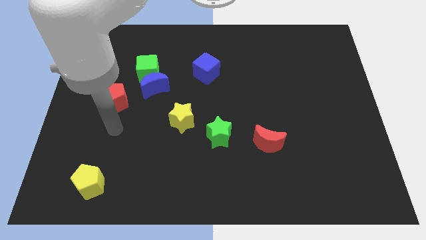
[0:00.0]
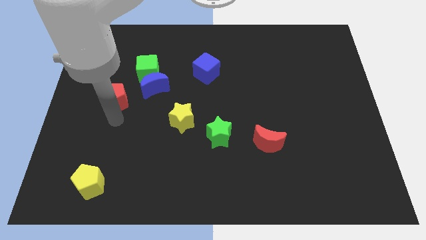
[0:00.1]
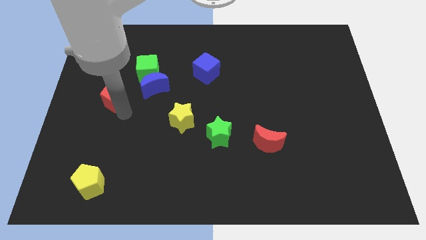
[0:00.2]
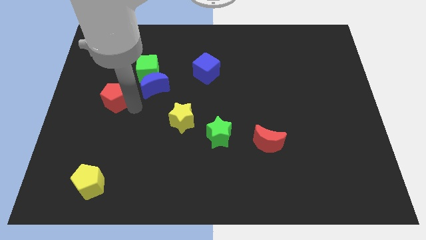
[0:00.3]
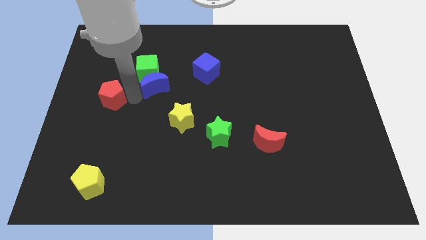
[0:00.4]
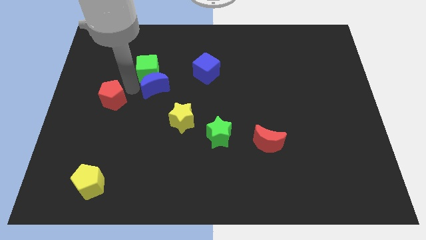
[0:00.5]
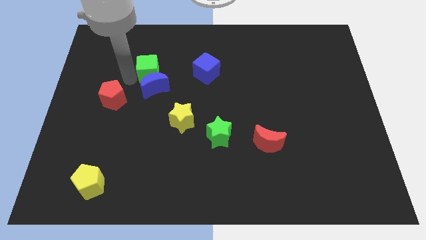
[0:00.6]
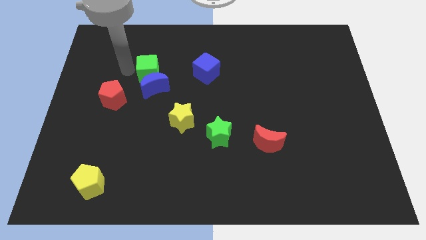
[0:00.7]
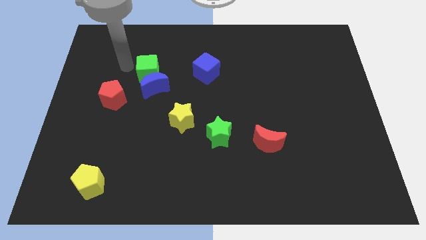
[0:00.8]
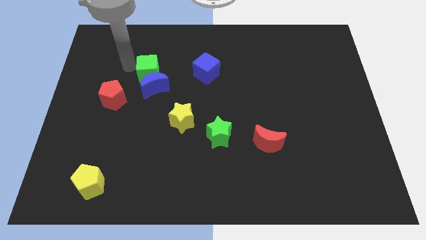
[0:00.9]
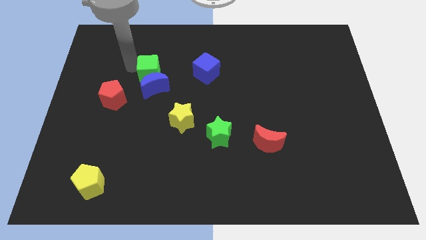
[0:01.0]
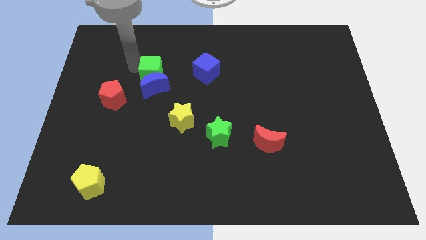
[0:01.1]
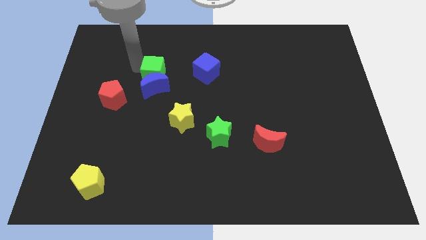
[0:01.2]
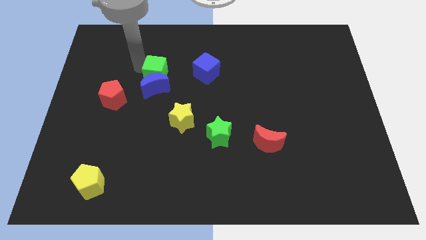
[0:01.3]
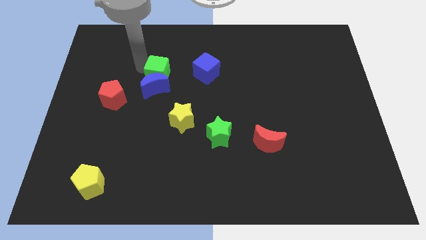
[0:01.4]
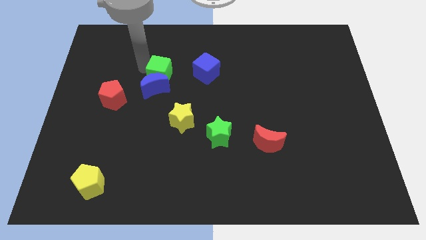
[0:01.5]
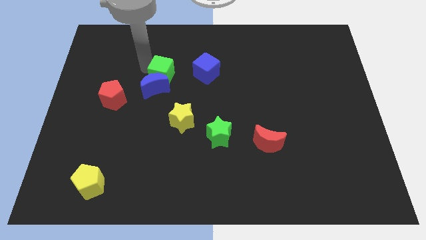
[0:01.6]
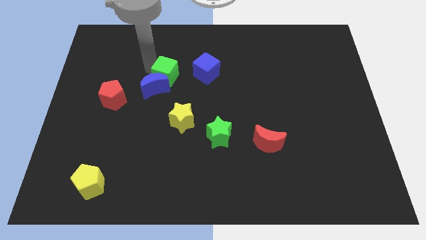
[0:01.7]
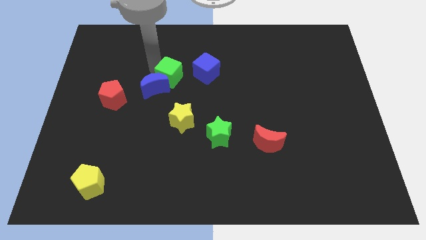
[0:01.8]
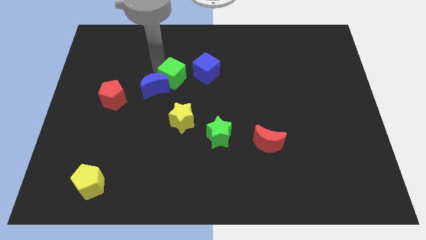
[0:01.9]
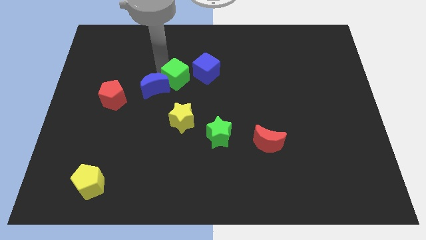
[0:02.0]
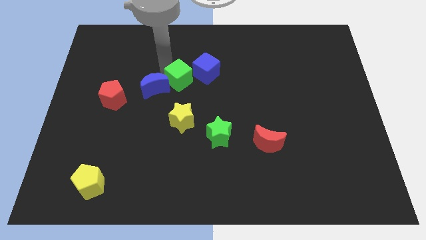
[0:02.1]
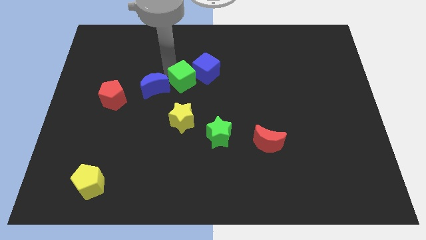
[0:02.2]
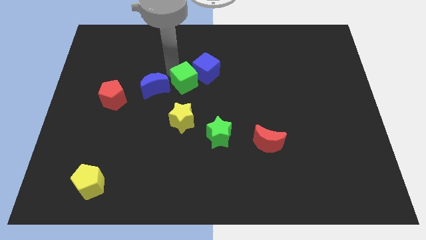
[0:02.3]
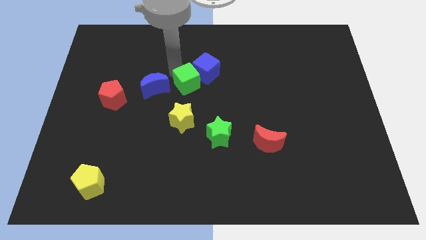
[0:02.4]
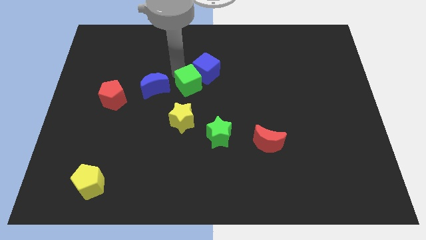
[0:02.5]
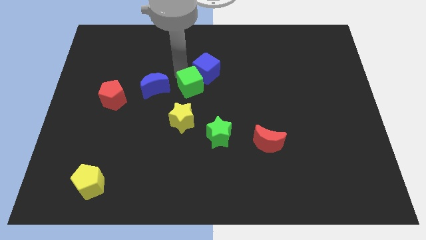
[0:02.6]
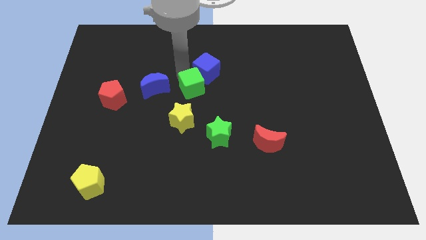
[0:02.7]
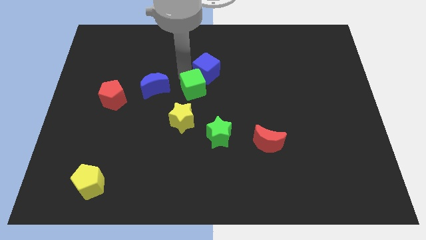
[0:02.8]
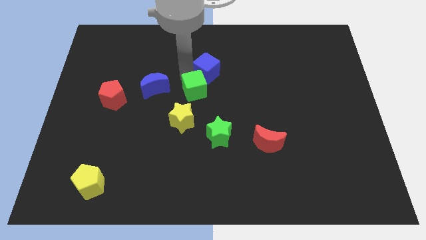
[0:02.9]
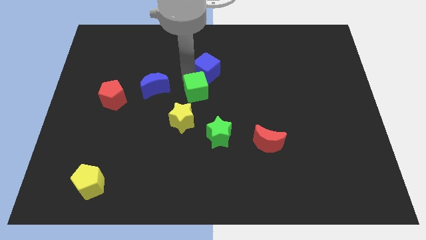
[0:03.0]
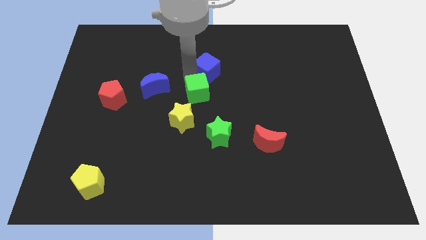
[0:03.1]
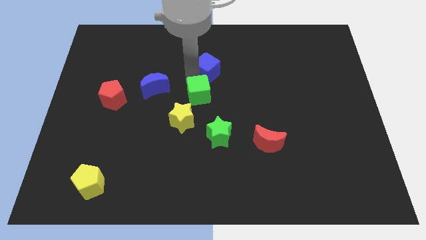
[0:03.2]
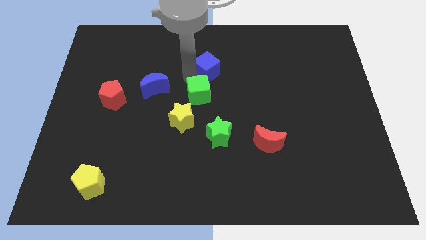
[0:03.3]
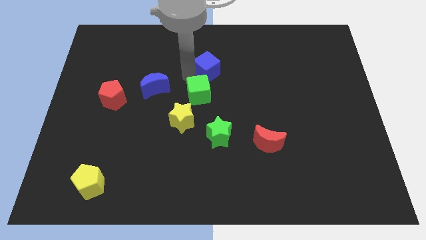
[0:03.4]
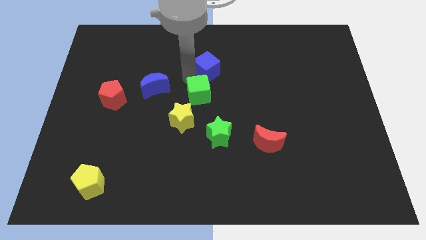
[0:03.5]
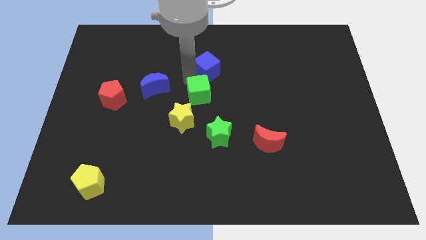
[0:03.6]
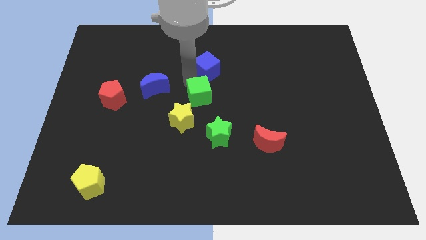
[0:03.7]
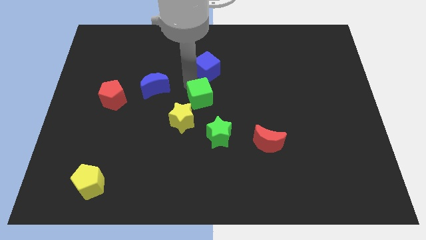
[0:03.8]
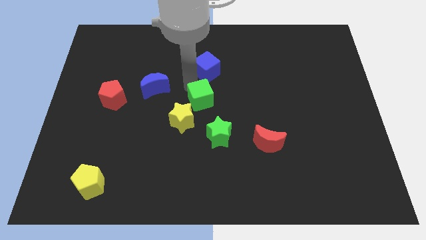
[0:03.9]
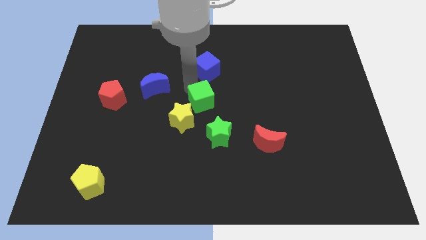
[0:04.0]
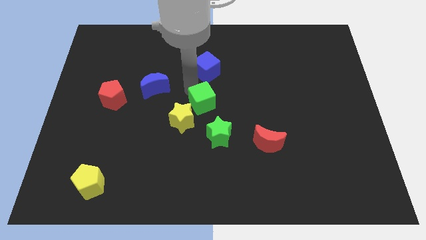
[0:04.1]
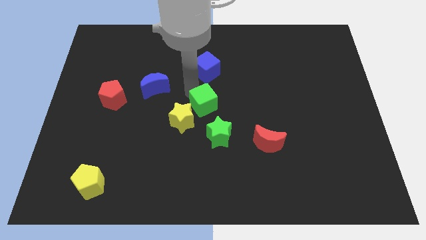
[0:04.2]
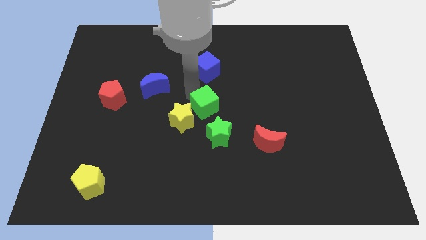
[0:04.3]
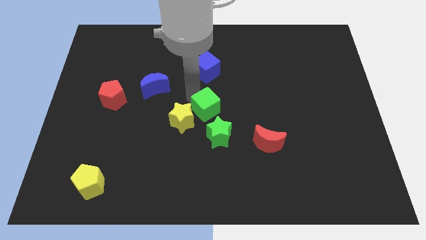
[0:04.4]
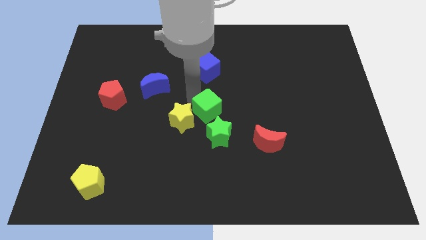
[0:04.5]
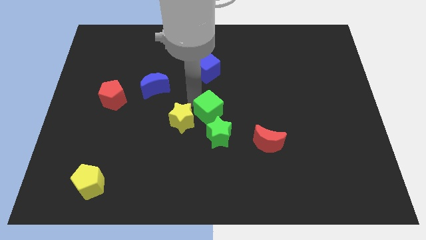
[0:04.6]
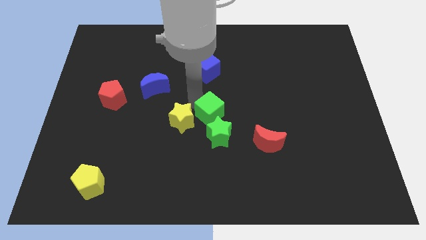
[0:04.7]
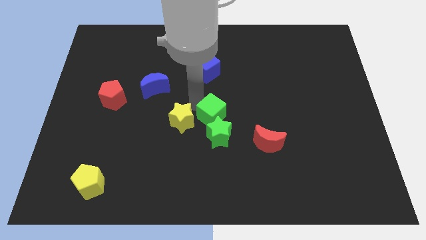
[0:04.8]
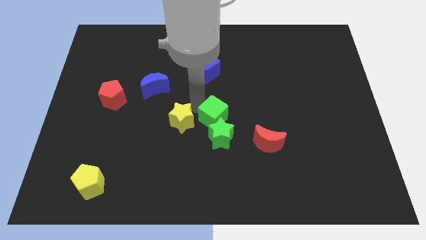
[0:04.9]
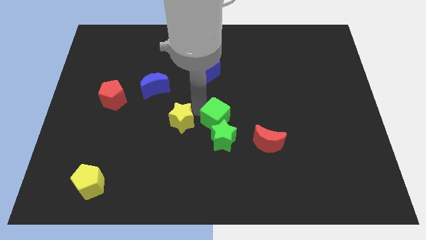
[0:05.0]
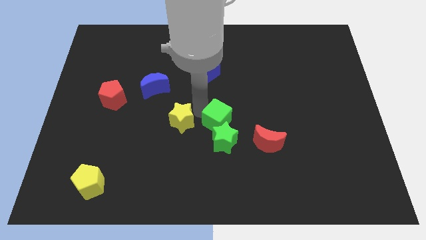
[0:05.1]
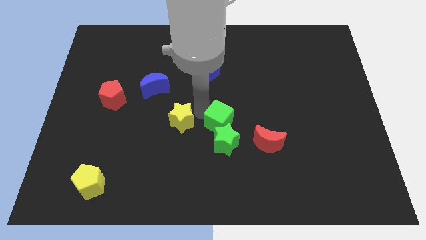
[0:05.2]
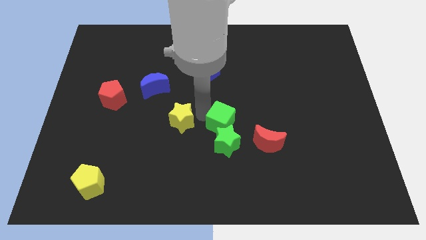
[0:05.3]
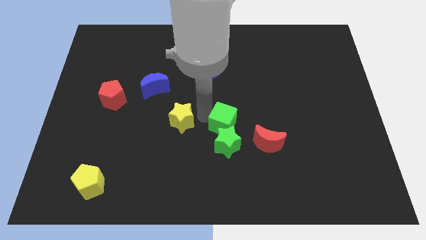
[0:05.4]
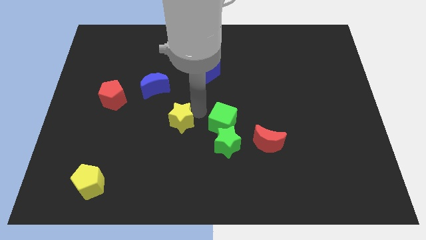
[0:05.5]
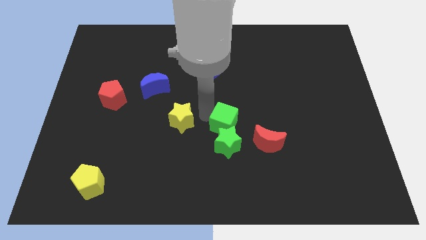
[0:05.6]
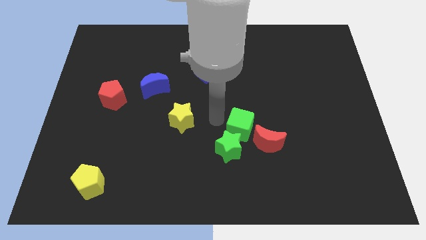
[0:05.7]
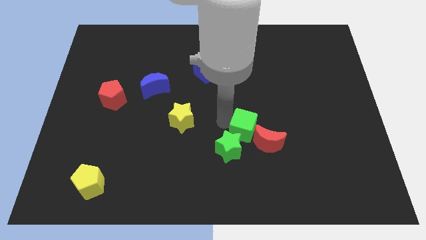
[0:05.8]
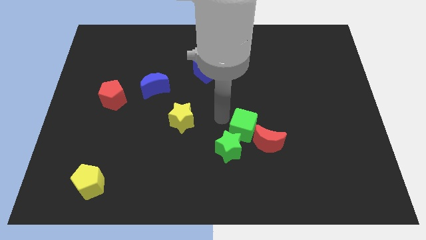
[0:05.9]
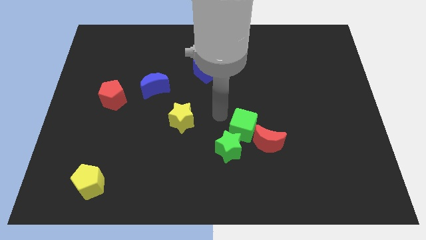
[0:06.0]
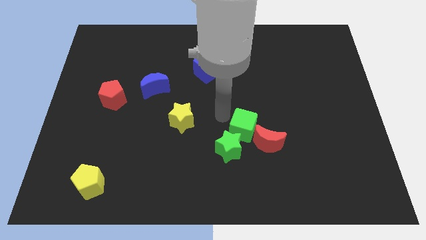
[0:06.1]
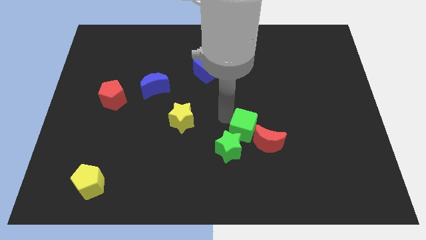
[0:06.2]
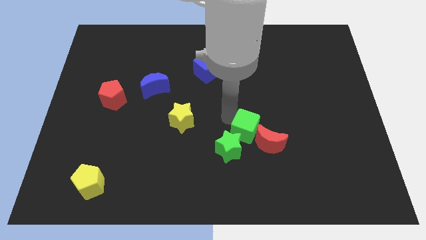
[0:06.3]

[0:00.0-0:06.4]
slide the green cube to the red moon
